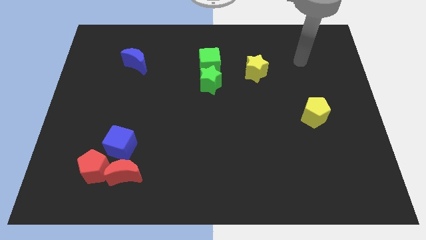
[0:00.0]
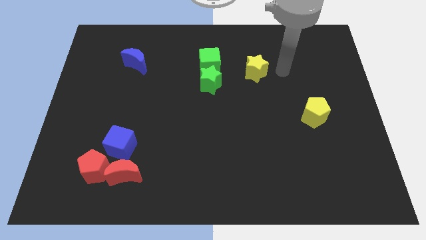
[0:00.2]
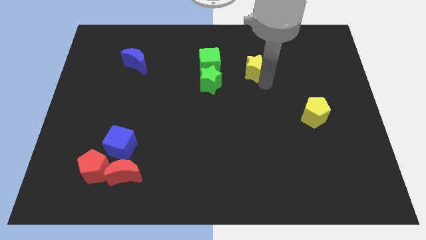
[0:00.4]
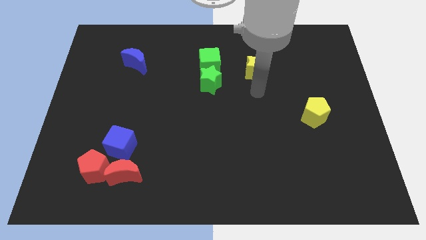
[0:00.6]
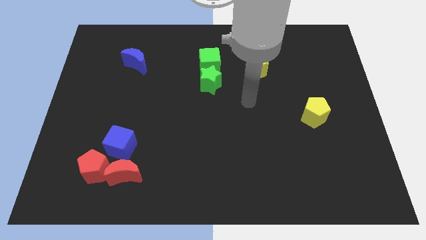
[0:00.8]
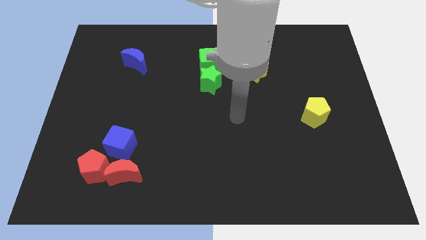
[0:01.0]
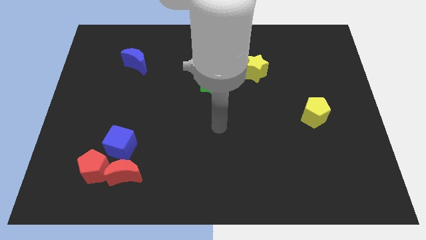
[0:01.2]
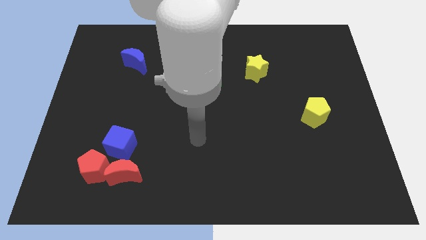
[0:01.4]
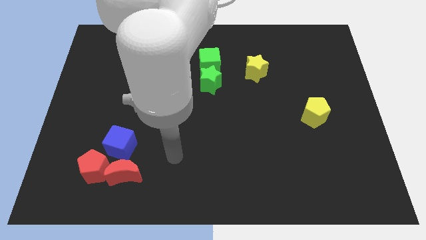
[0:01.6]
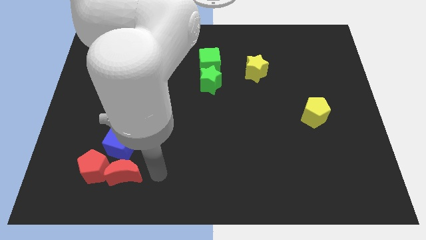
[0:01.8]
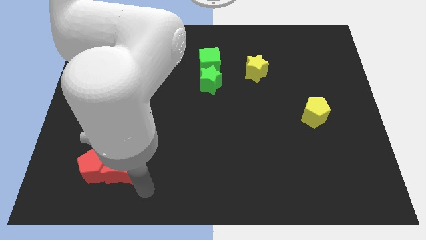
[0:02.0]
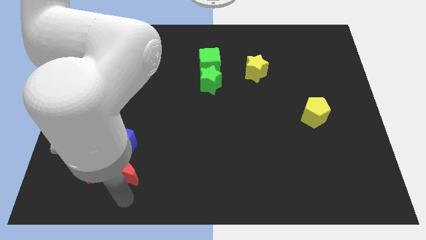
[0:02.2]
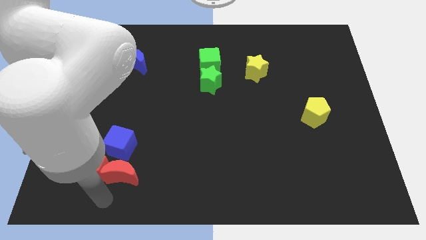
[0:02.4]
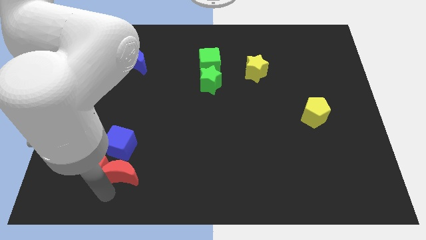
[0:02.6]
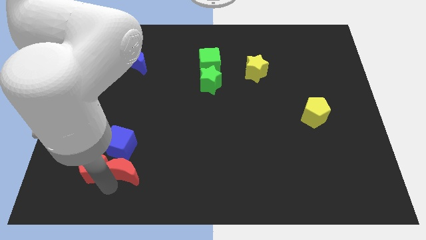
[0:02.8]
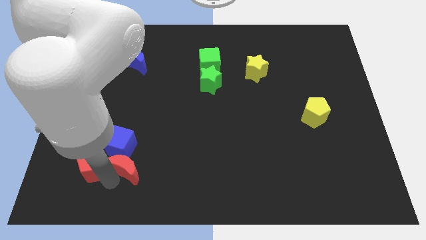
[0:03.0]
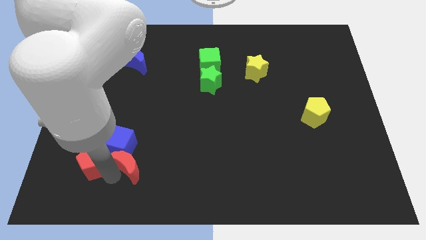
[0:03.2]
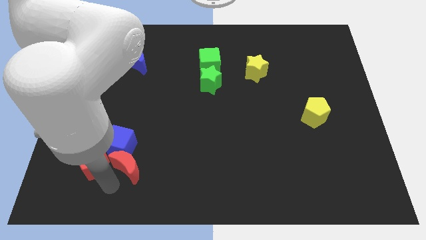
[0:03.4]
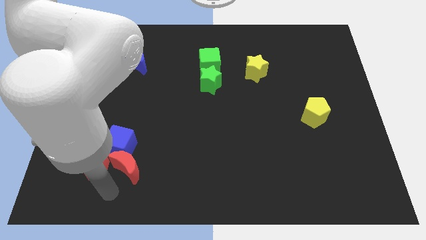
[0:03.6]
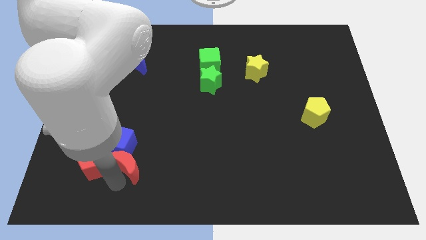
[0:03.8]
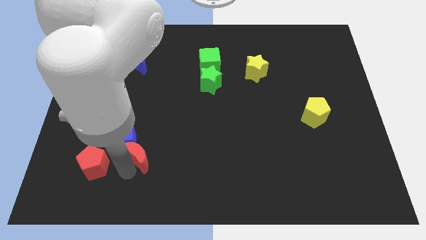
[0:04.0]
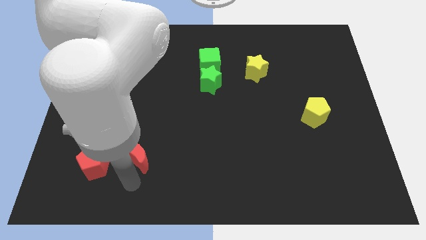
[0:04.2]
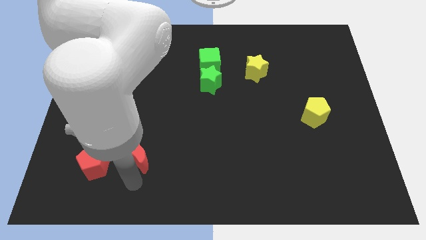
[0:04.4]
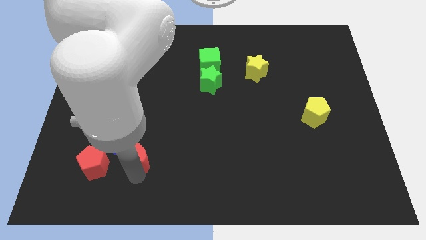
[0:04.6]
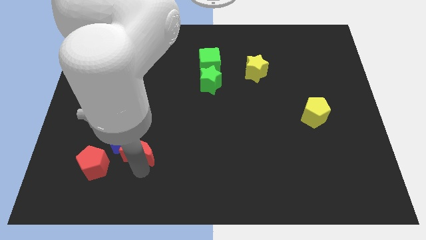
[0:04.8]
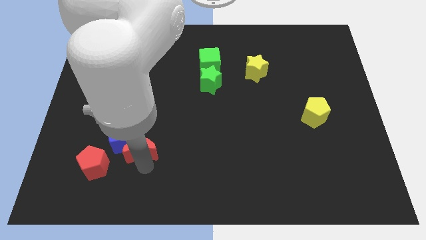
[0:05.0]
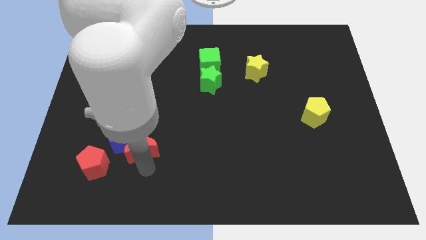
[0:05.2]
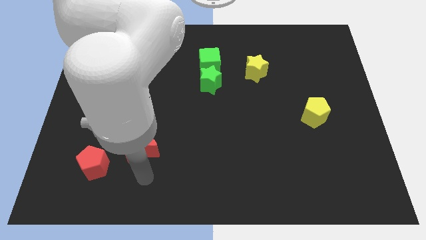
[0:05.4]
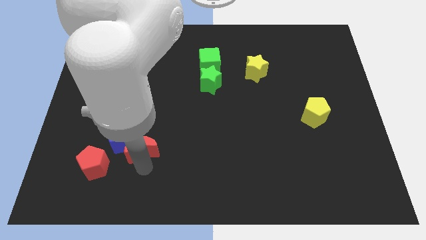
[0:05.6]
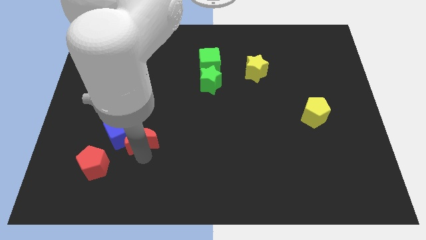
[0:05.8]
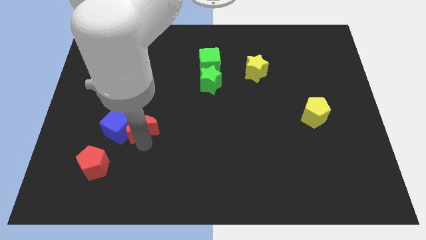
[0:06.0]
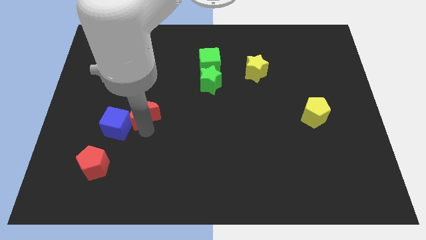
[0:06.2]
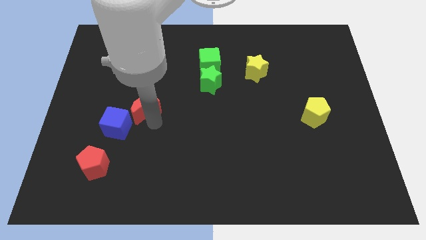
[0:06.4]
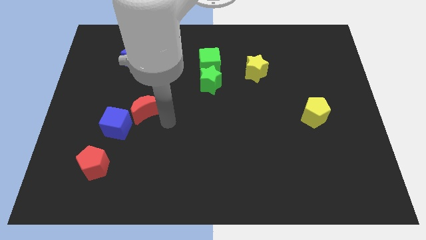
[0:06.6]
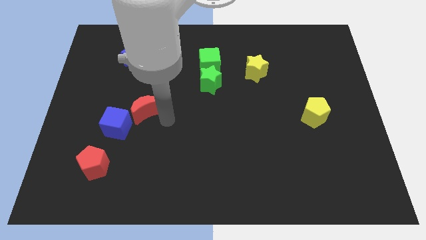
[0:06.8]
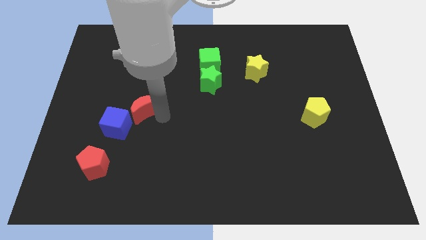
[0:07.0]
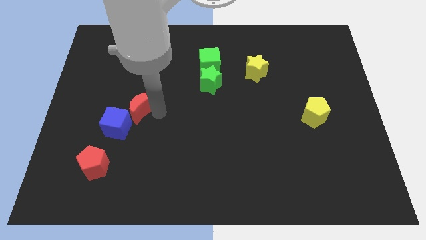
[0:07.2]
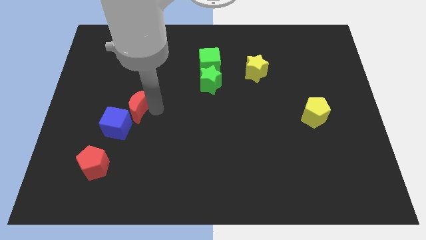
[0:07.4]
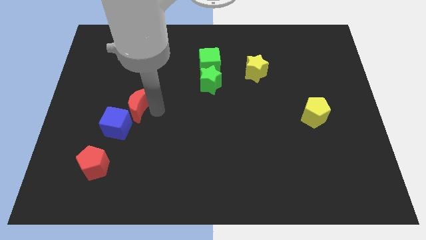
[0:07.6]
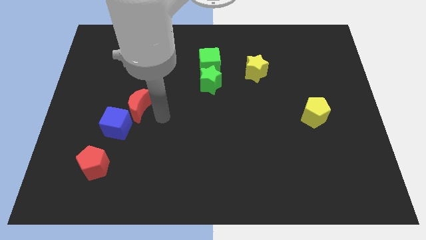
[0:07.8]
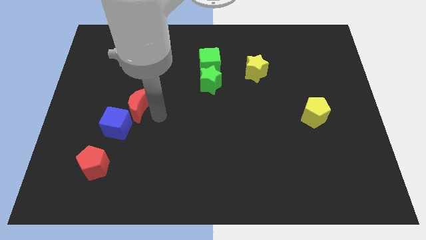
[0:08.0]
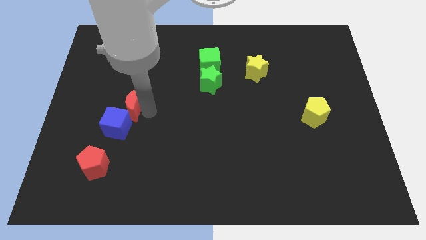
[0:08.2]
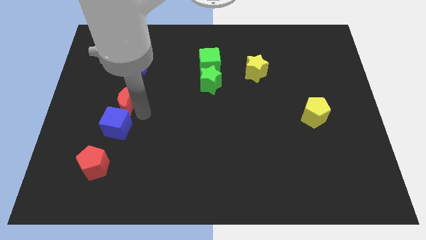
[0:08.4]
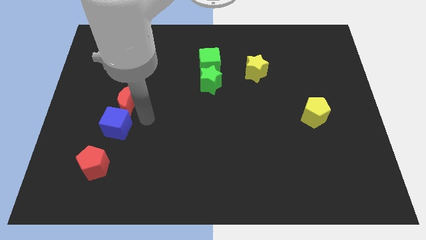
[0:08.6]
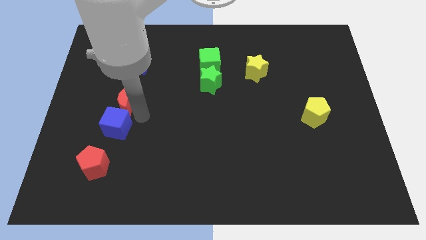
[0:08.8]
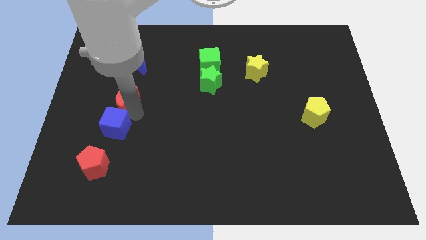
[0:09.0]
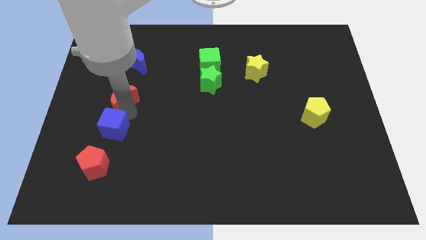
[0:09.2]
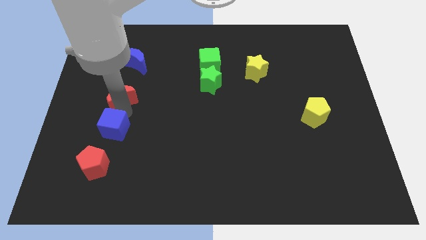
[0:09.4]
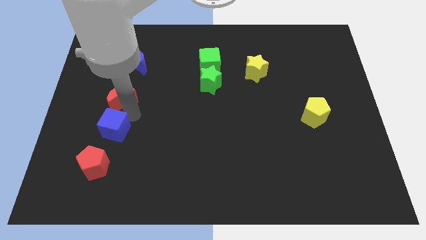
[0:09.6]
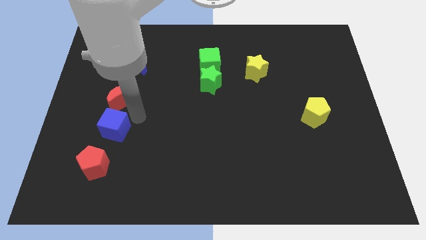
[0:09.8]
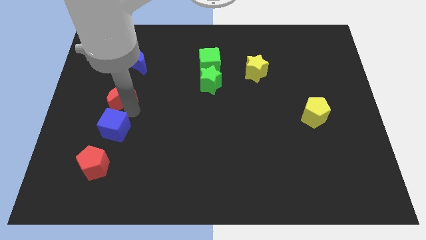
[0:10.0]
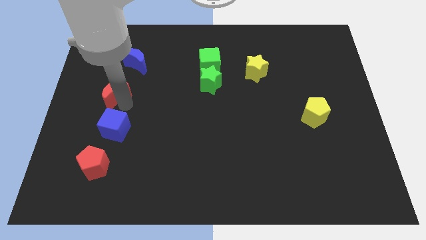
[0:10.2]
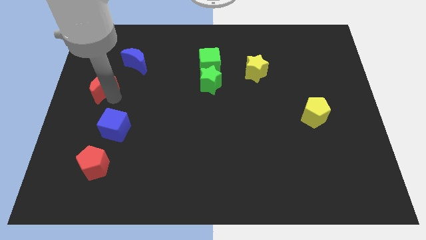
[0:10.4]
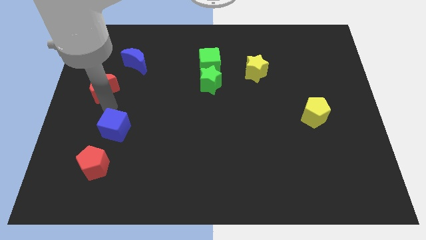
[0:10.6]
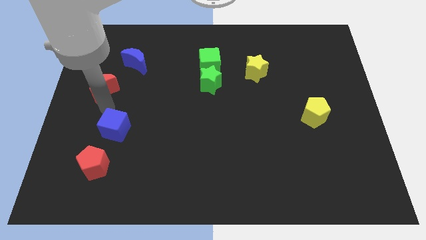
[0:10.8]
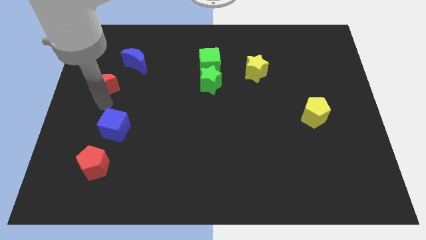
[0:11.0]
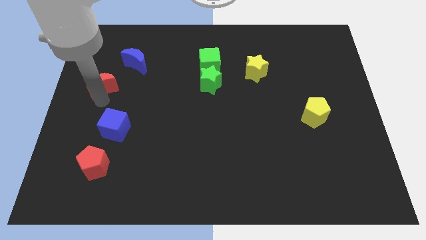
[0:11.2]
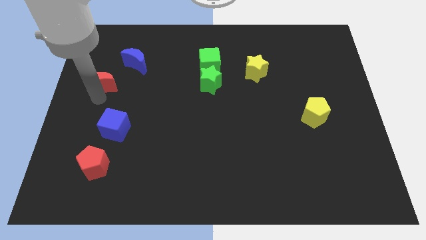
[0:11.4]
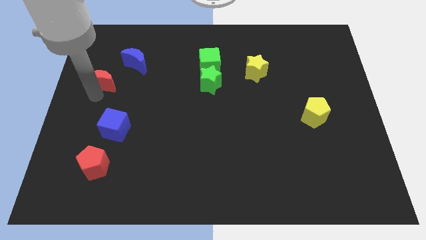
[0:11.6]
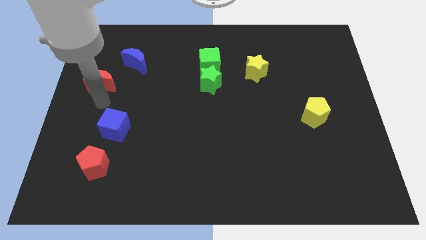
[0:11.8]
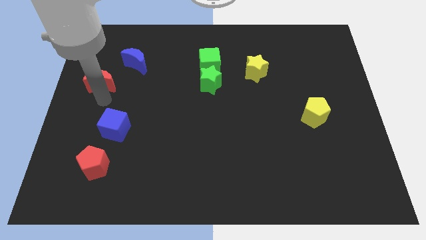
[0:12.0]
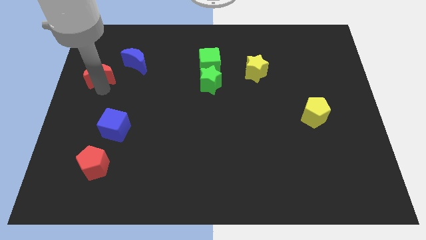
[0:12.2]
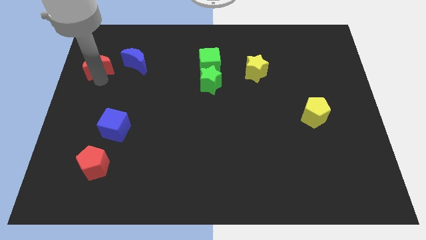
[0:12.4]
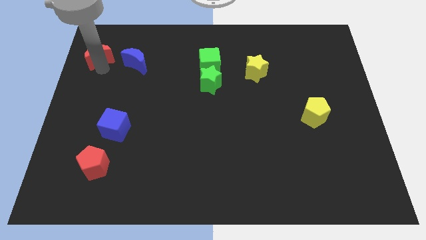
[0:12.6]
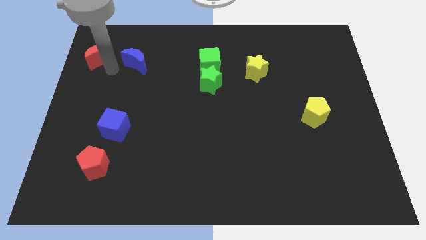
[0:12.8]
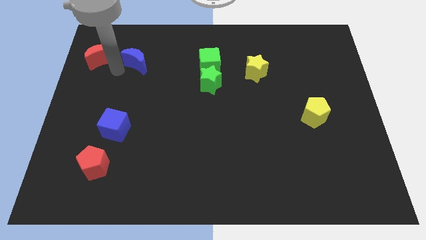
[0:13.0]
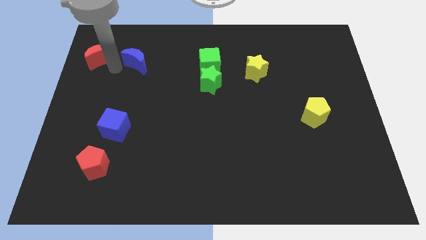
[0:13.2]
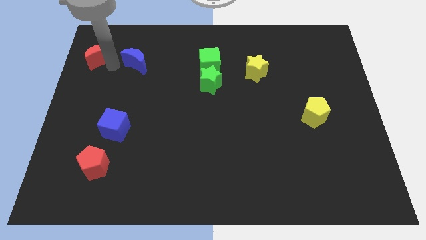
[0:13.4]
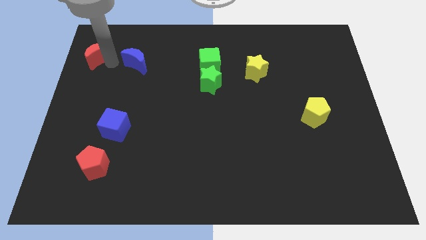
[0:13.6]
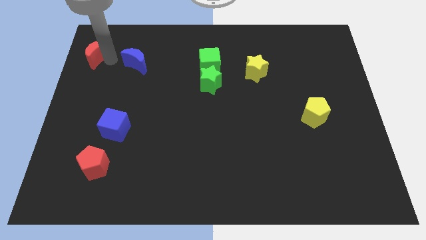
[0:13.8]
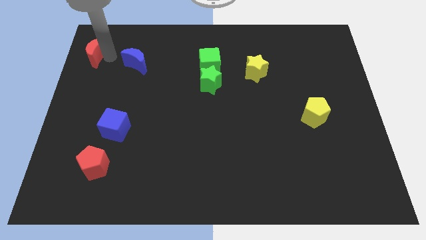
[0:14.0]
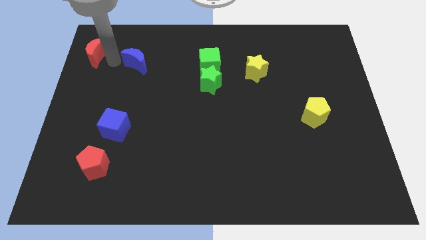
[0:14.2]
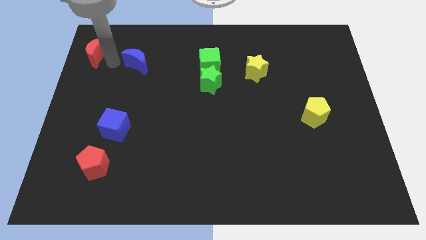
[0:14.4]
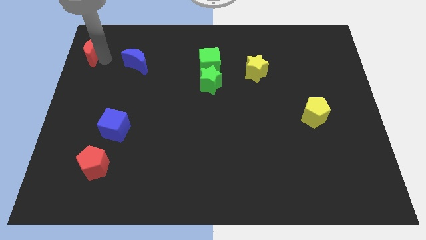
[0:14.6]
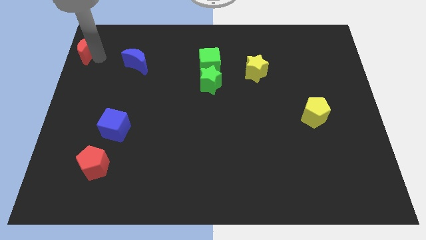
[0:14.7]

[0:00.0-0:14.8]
push the red moon to the top left corner

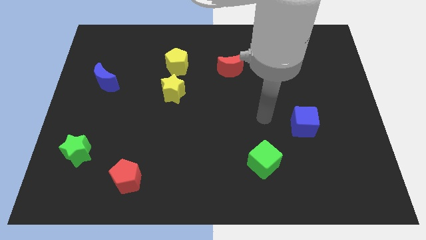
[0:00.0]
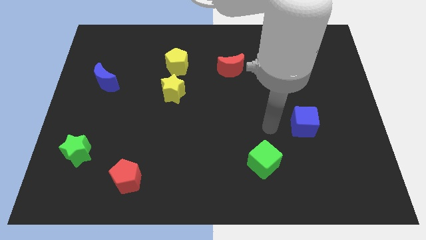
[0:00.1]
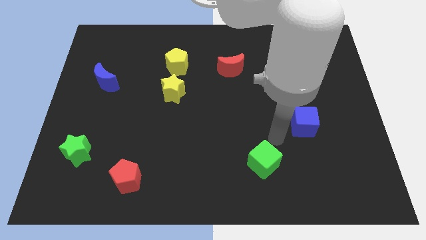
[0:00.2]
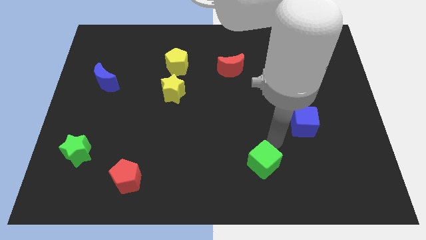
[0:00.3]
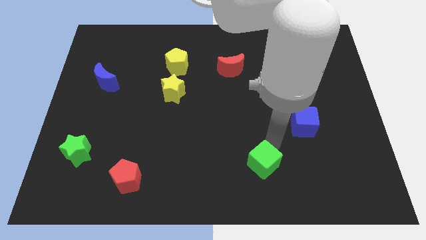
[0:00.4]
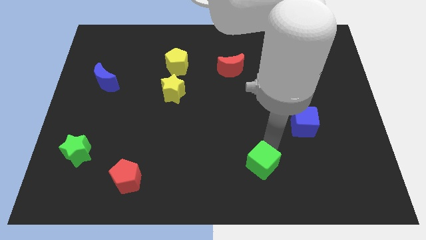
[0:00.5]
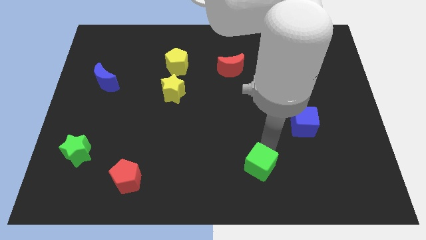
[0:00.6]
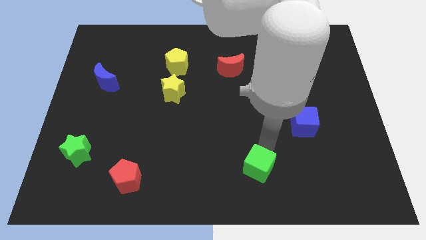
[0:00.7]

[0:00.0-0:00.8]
slide the green cube to the bottom side
